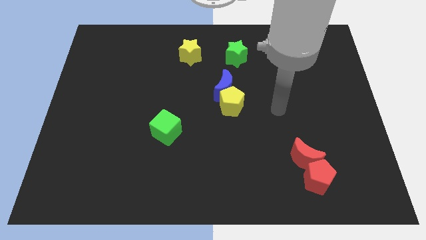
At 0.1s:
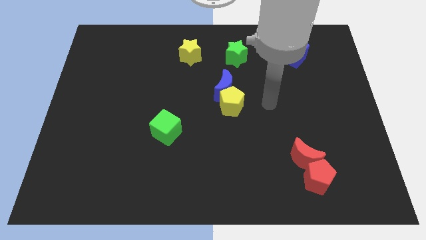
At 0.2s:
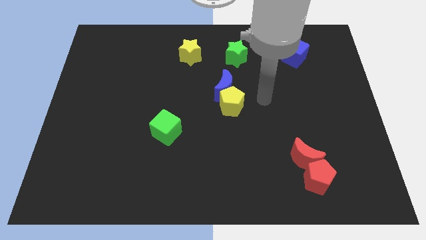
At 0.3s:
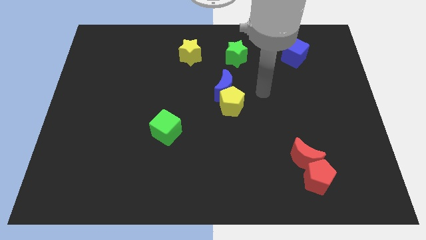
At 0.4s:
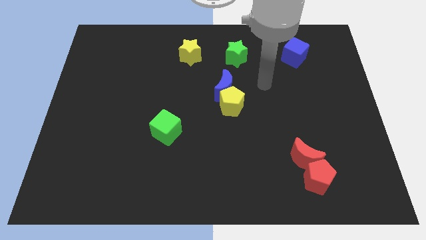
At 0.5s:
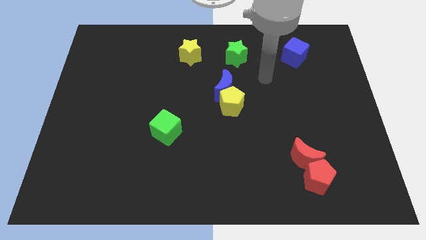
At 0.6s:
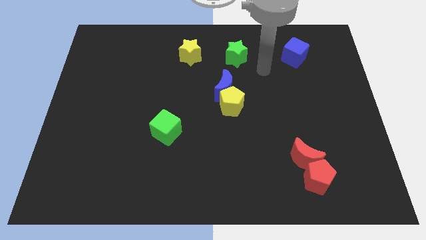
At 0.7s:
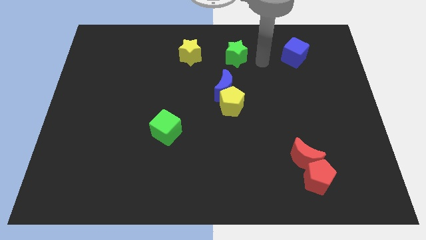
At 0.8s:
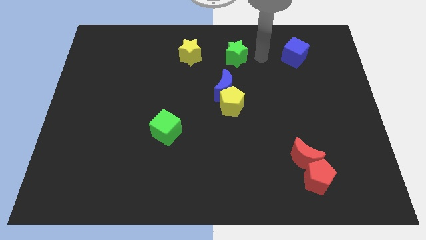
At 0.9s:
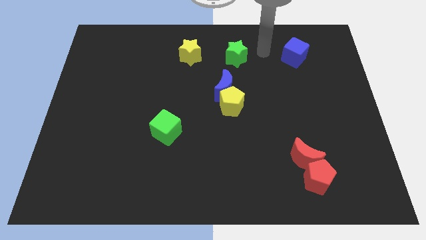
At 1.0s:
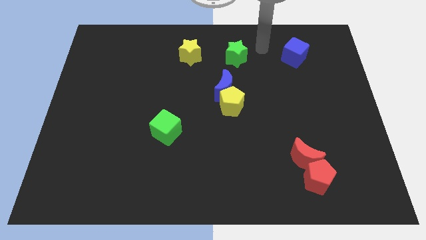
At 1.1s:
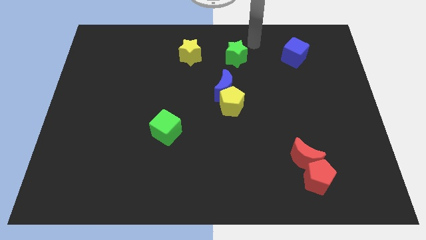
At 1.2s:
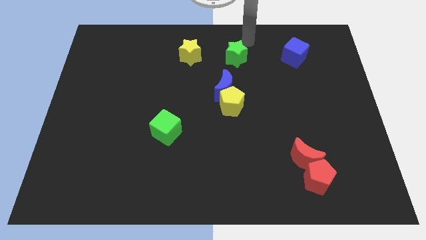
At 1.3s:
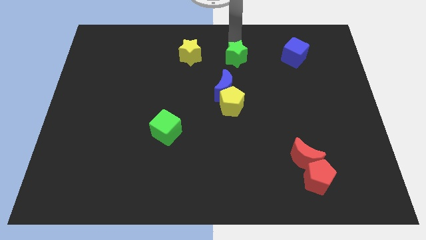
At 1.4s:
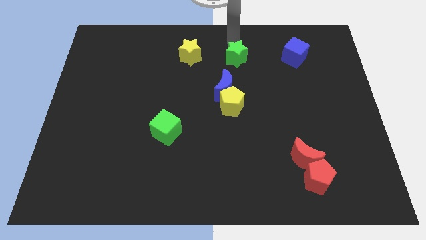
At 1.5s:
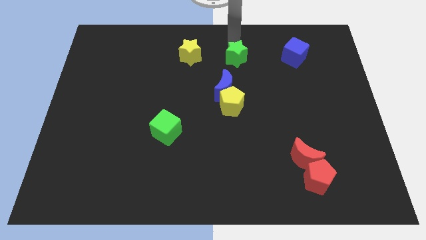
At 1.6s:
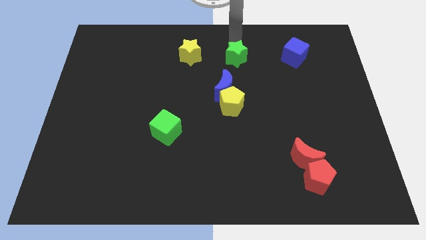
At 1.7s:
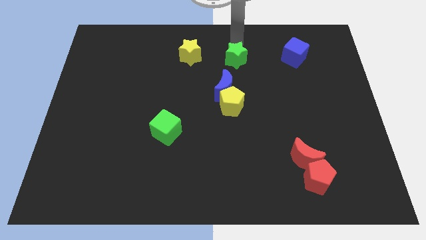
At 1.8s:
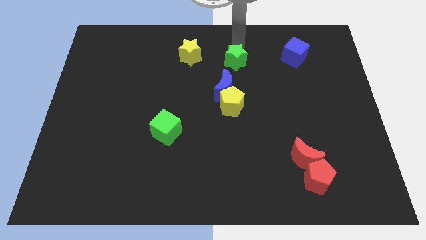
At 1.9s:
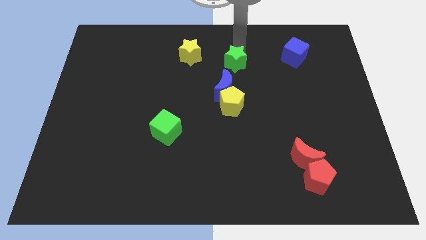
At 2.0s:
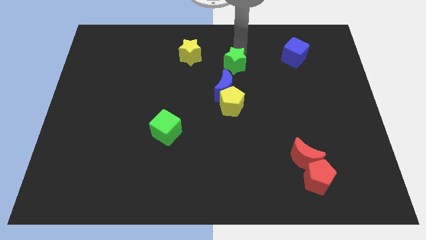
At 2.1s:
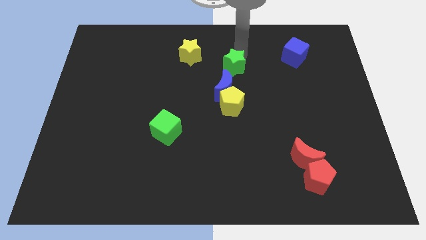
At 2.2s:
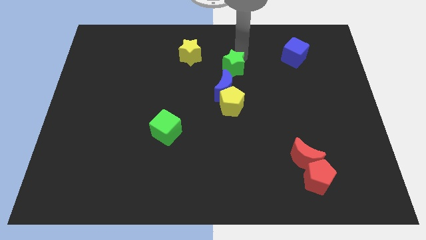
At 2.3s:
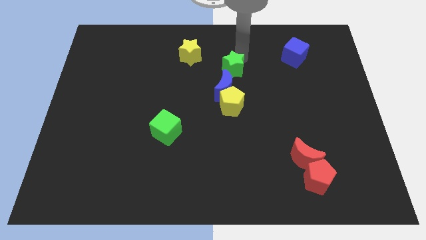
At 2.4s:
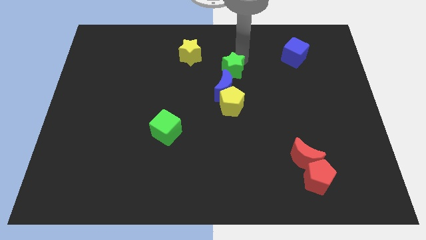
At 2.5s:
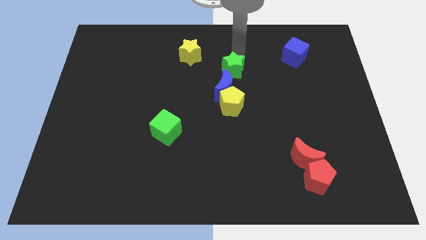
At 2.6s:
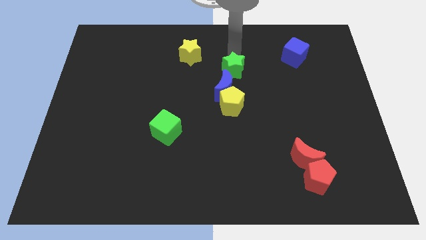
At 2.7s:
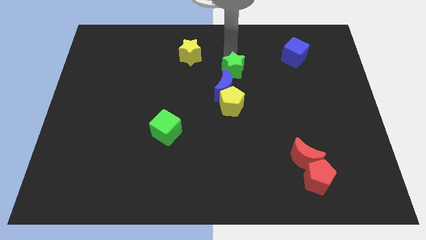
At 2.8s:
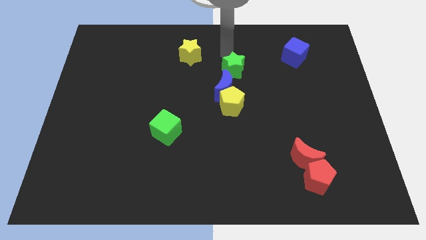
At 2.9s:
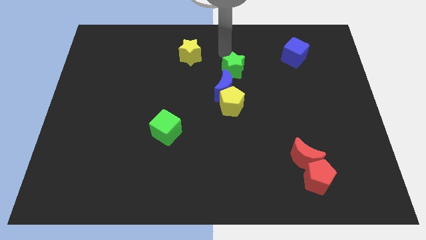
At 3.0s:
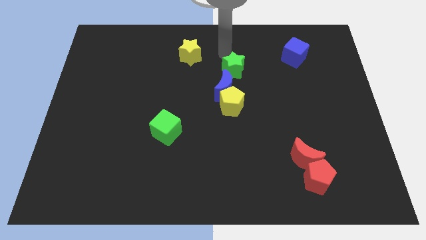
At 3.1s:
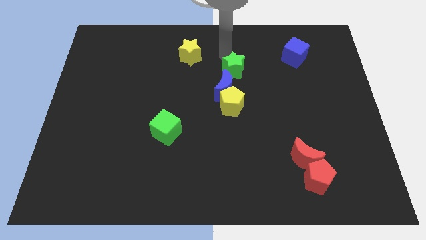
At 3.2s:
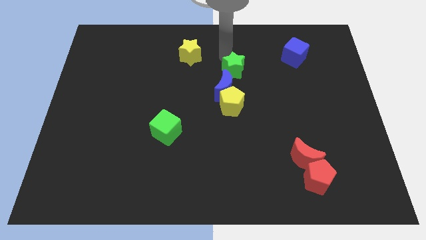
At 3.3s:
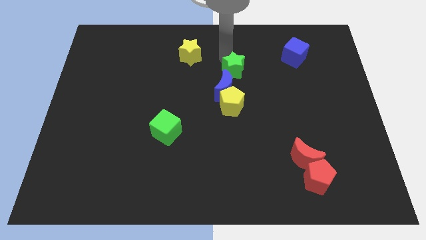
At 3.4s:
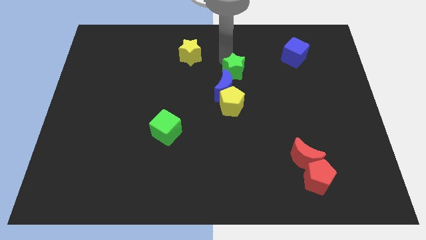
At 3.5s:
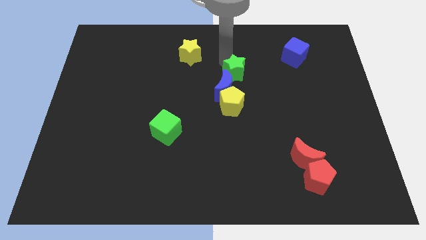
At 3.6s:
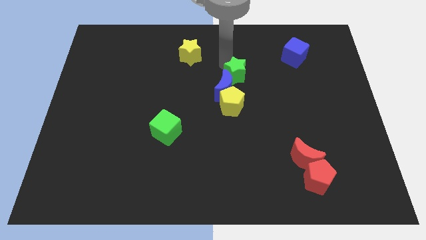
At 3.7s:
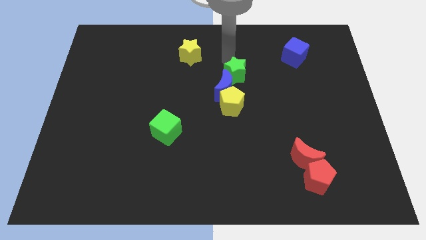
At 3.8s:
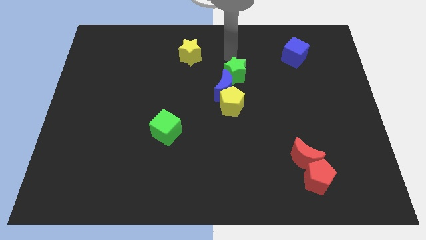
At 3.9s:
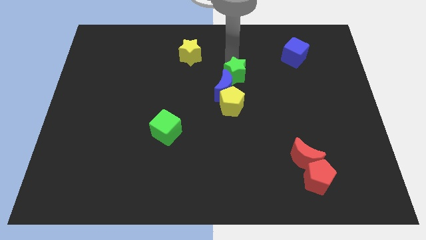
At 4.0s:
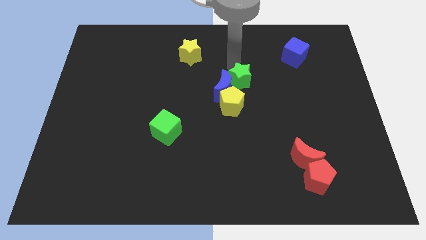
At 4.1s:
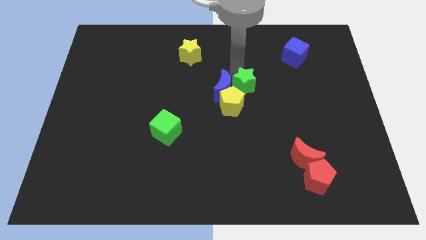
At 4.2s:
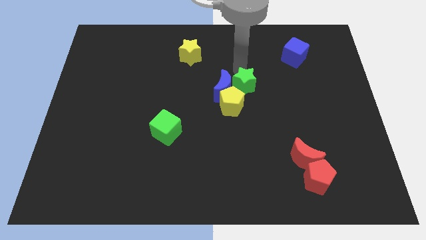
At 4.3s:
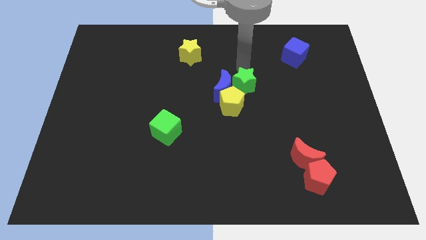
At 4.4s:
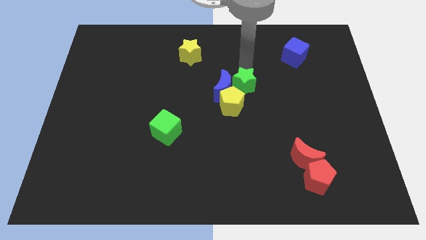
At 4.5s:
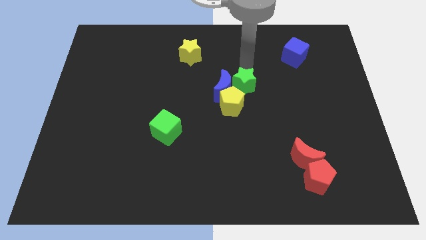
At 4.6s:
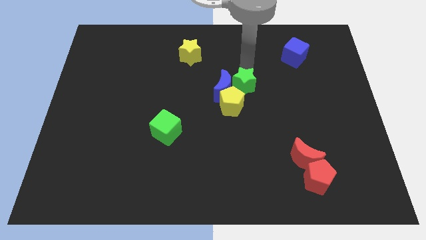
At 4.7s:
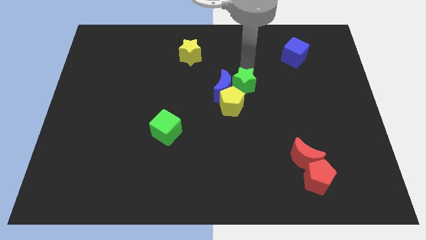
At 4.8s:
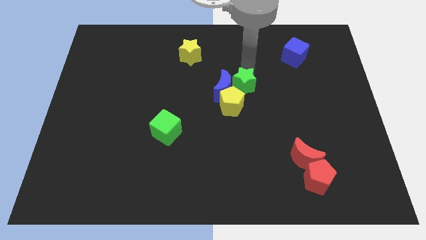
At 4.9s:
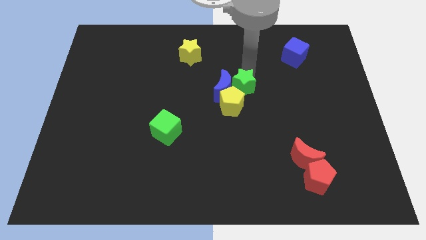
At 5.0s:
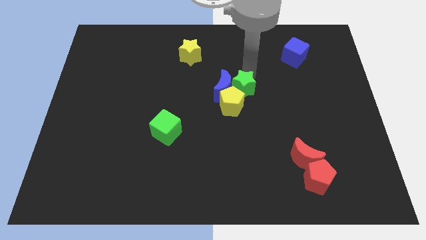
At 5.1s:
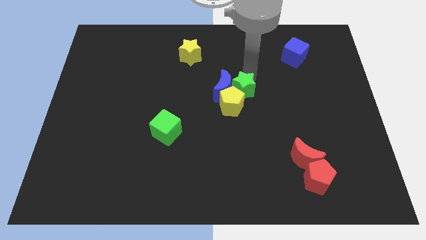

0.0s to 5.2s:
slide the green star to the yellow pentagon

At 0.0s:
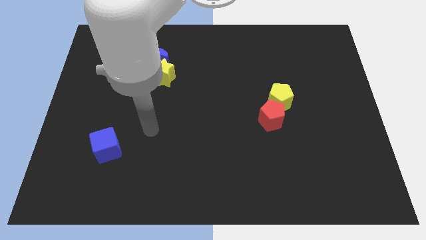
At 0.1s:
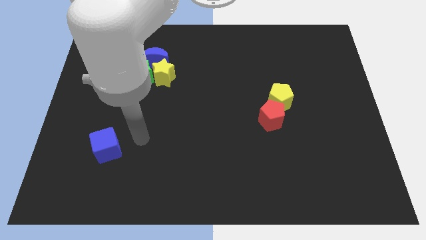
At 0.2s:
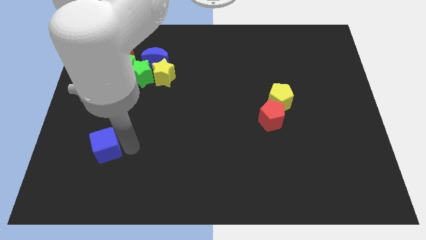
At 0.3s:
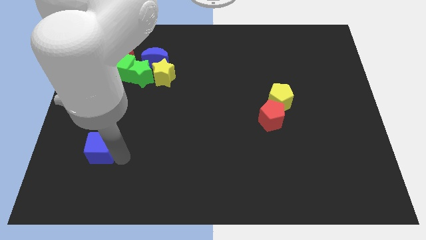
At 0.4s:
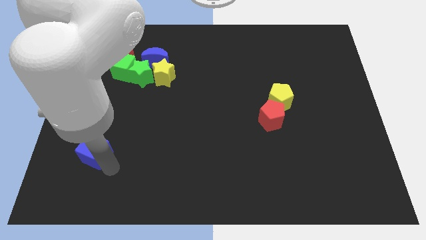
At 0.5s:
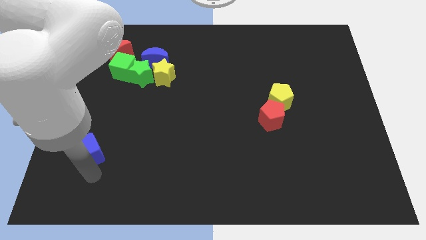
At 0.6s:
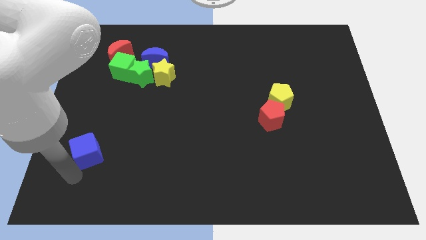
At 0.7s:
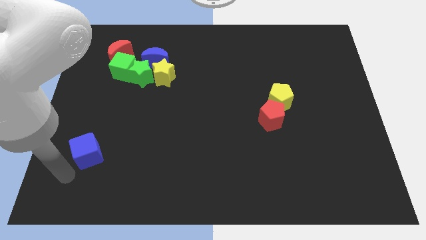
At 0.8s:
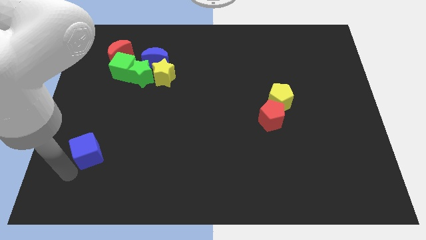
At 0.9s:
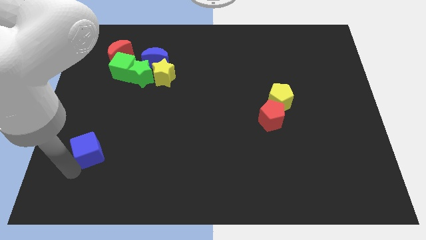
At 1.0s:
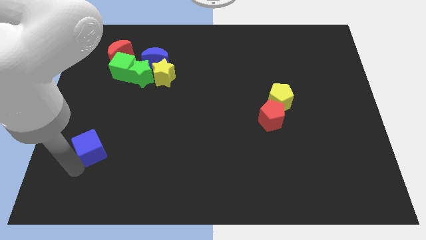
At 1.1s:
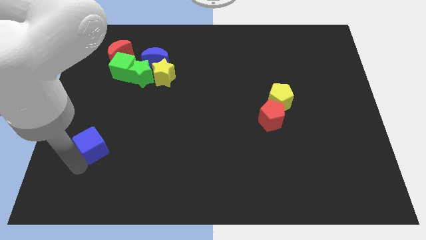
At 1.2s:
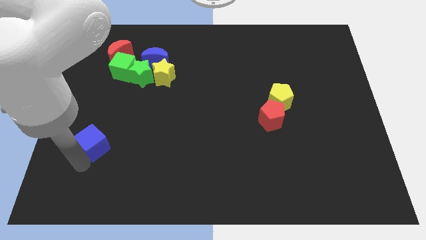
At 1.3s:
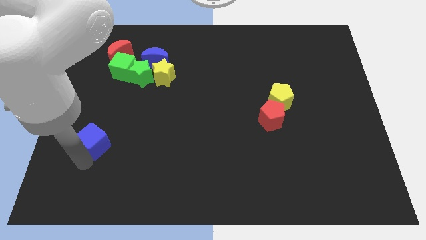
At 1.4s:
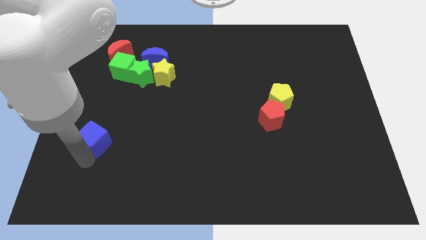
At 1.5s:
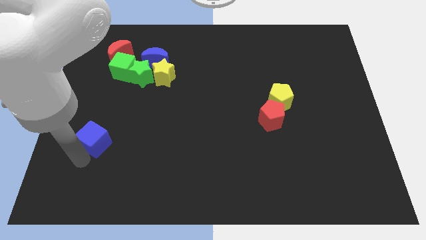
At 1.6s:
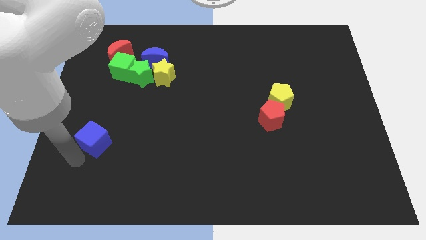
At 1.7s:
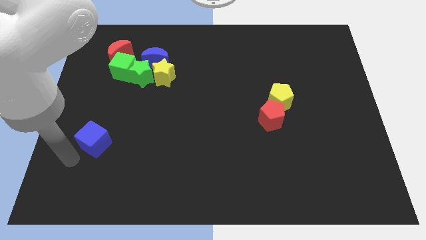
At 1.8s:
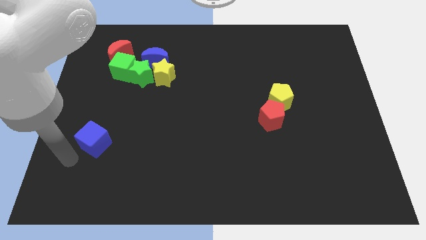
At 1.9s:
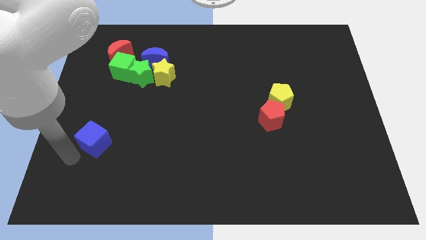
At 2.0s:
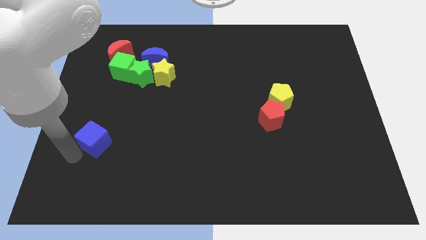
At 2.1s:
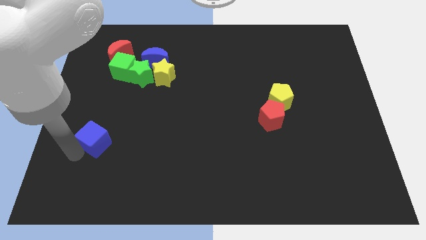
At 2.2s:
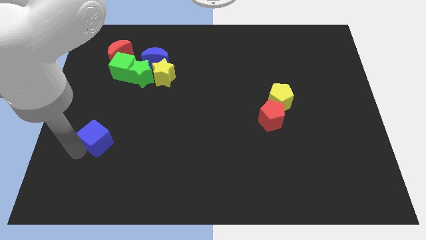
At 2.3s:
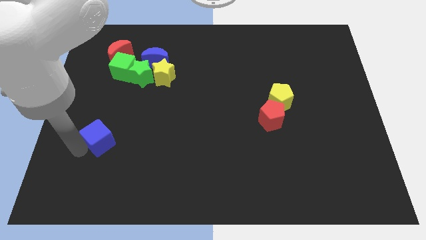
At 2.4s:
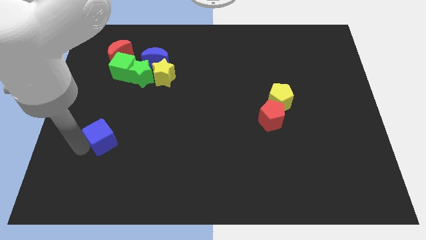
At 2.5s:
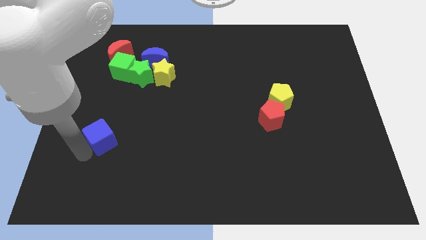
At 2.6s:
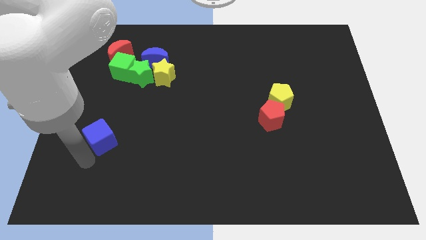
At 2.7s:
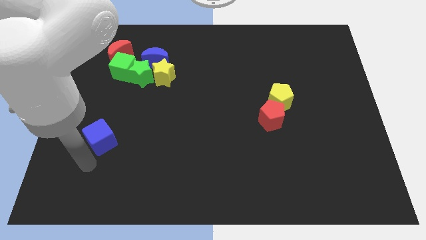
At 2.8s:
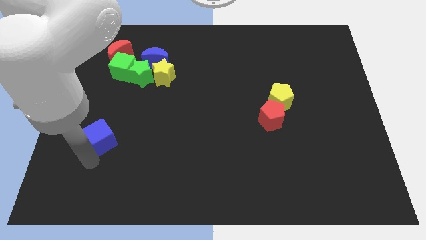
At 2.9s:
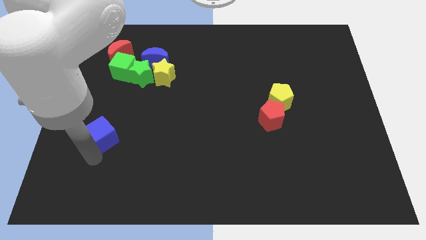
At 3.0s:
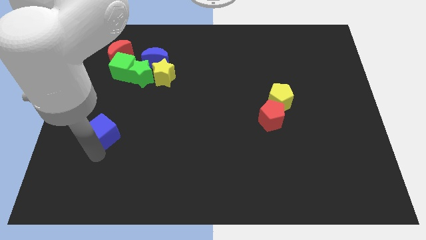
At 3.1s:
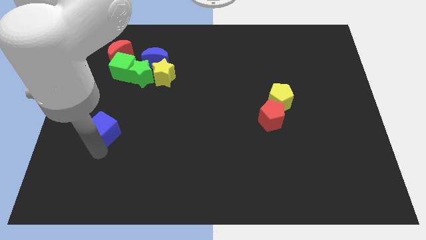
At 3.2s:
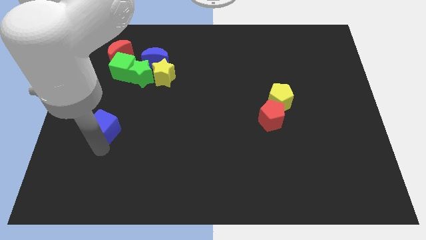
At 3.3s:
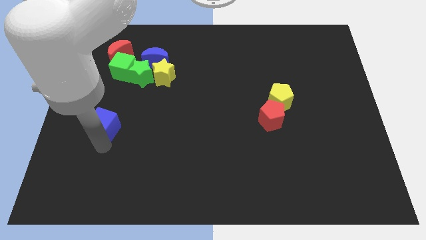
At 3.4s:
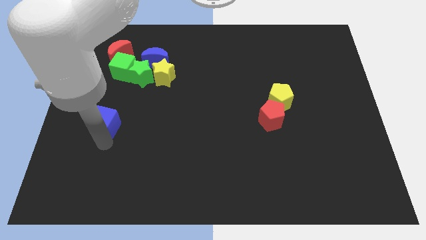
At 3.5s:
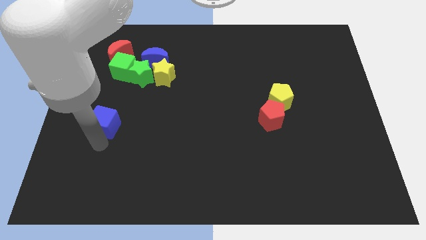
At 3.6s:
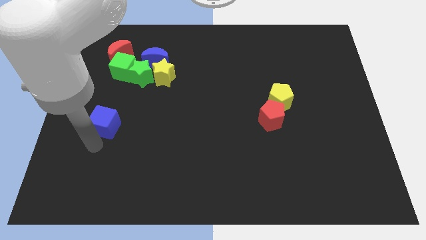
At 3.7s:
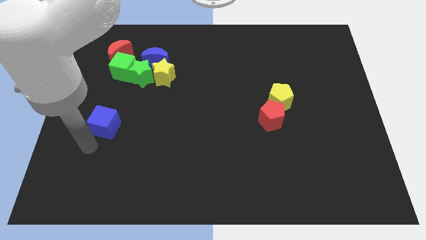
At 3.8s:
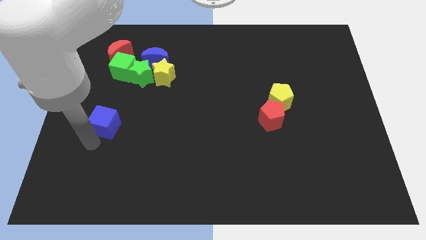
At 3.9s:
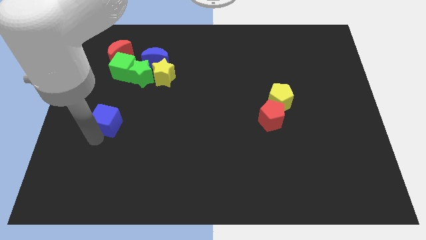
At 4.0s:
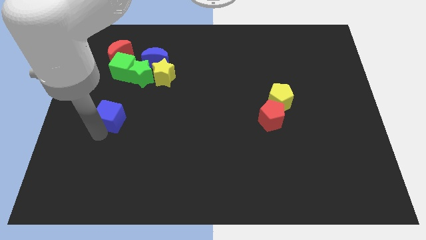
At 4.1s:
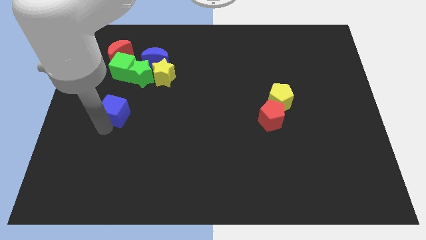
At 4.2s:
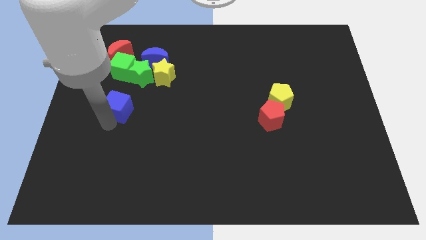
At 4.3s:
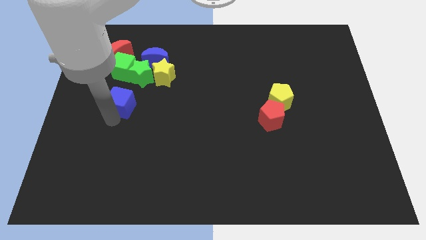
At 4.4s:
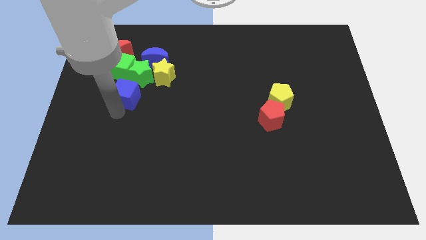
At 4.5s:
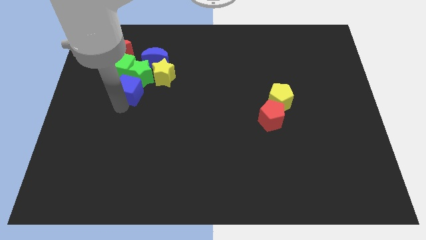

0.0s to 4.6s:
push the blue cube next to the green star
